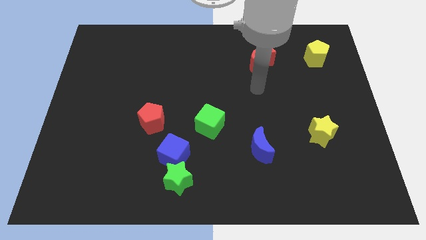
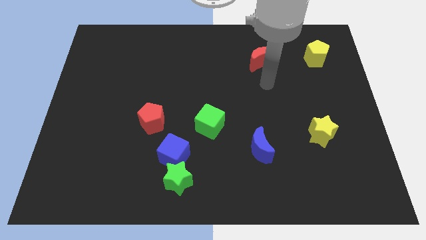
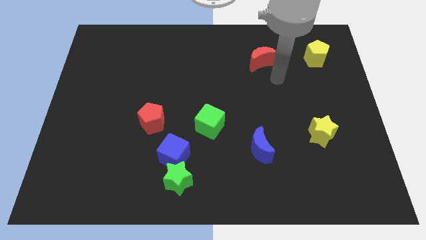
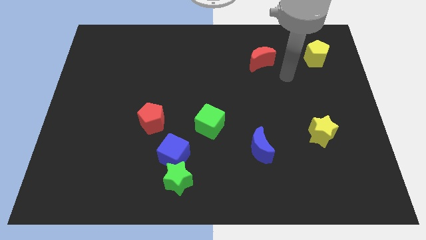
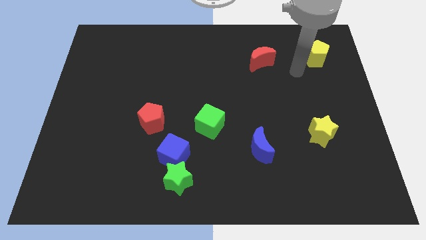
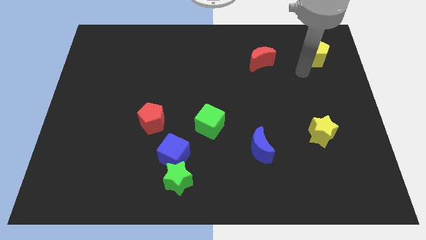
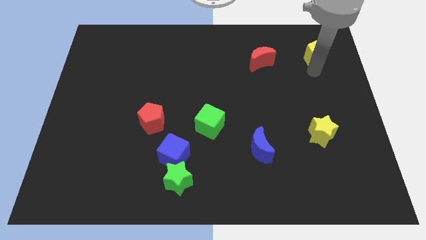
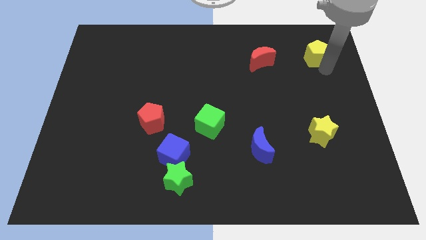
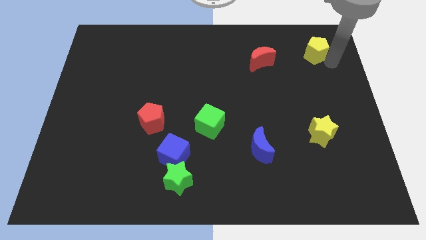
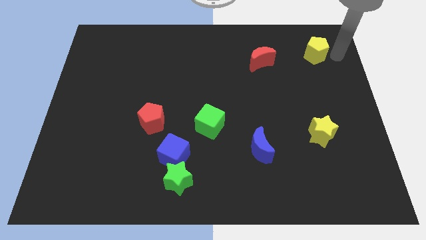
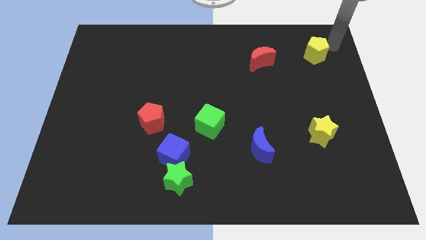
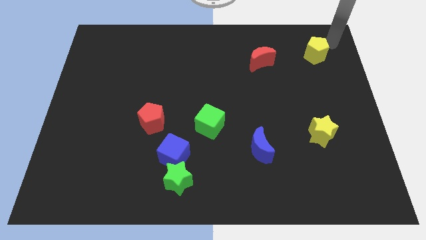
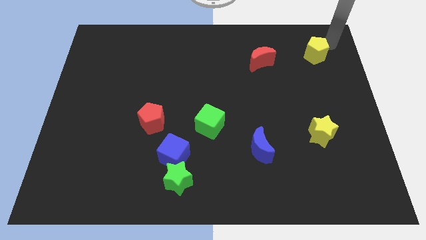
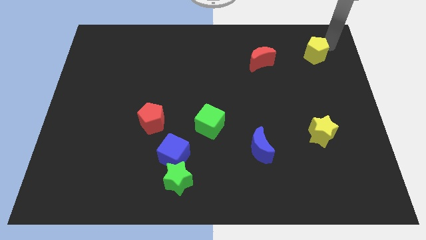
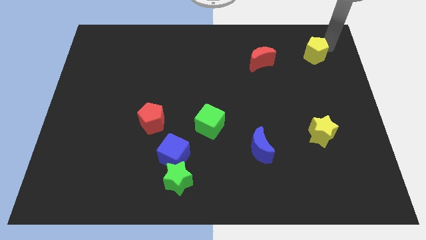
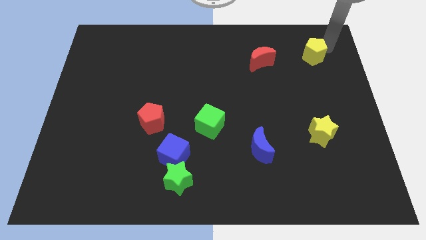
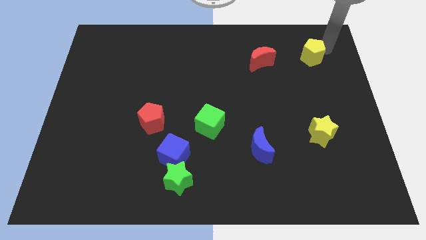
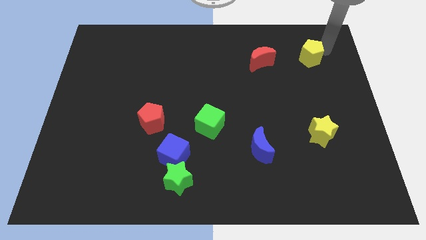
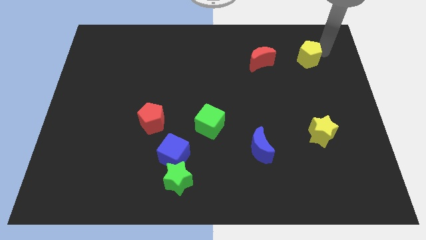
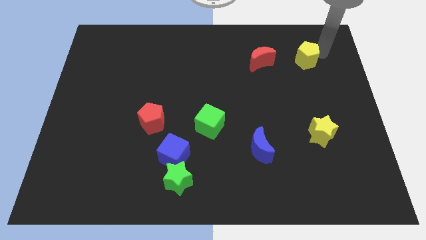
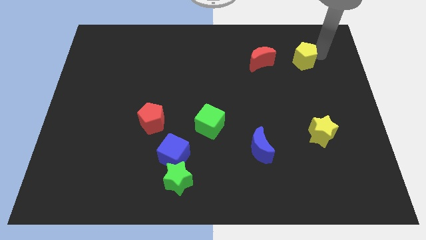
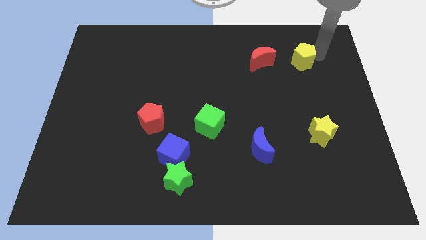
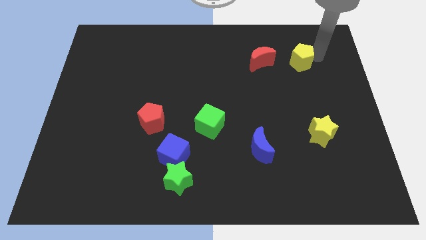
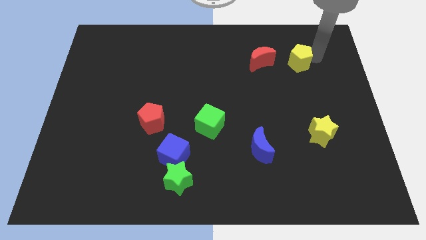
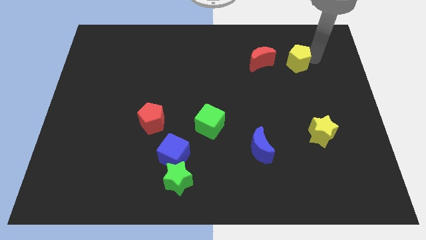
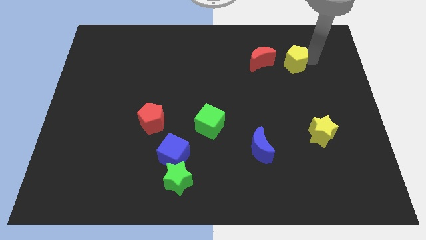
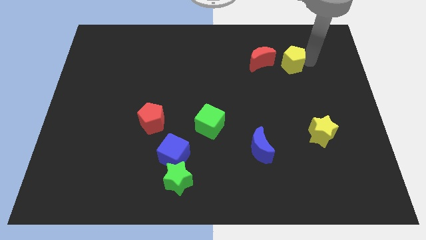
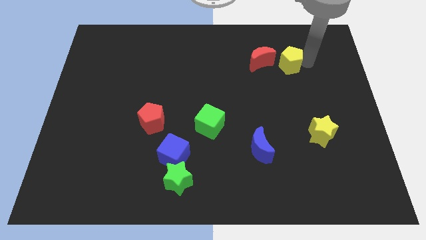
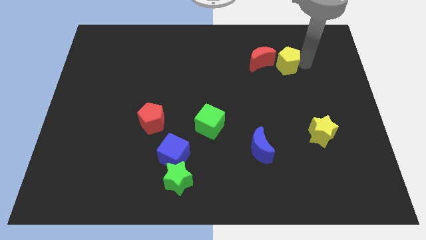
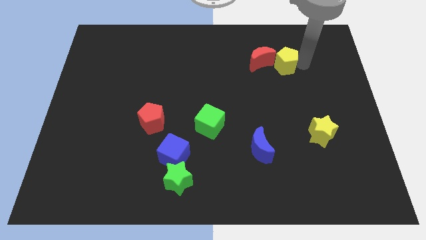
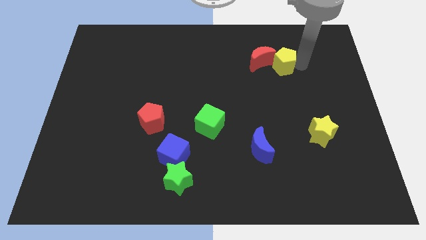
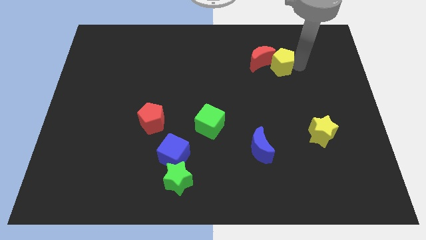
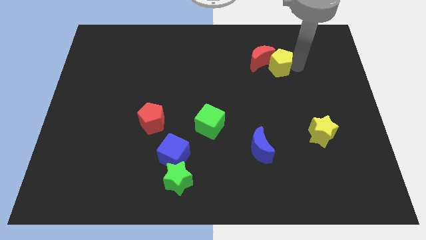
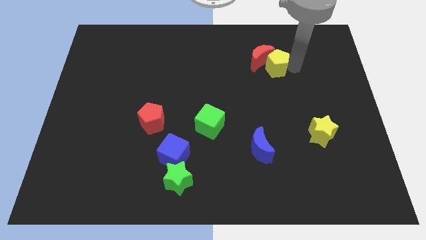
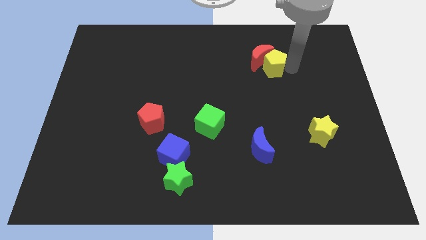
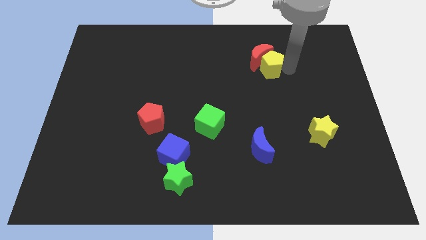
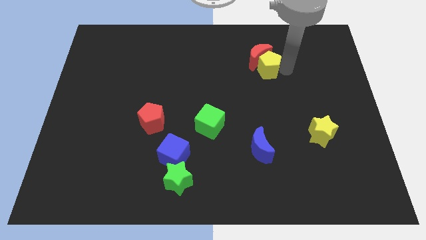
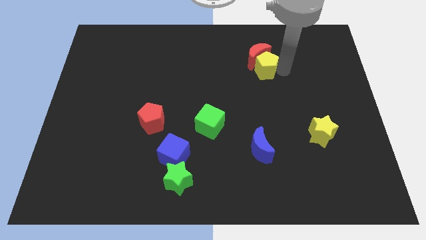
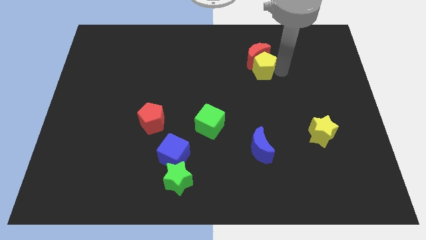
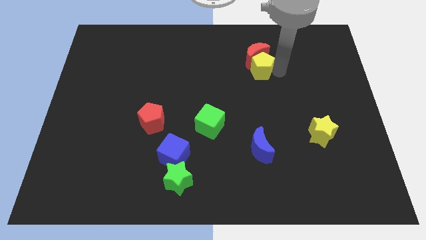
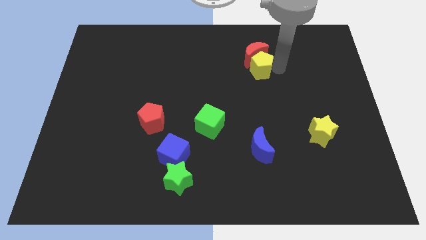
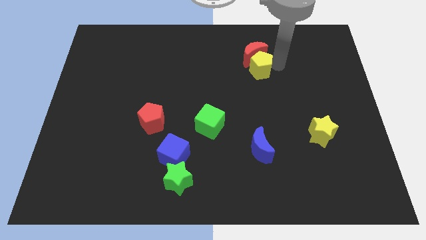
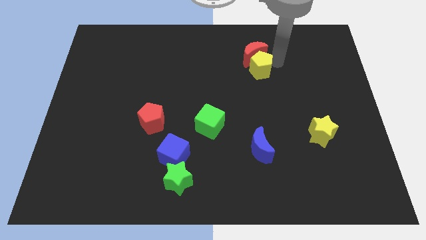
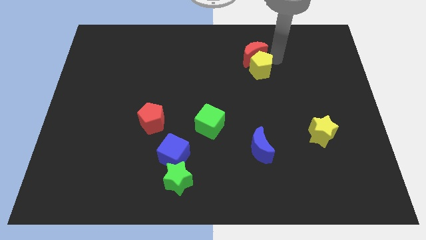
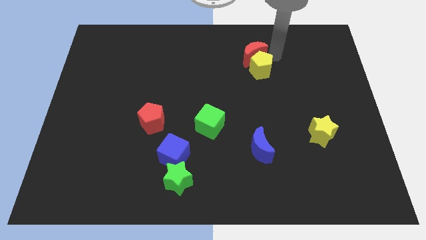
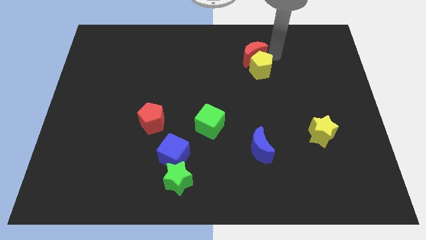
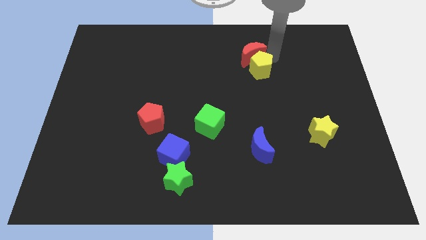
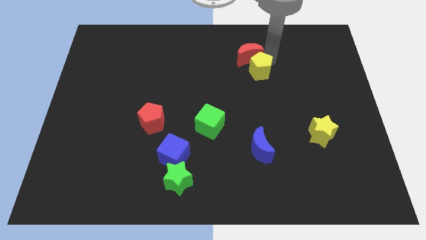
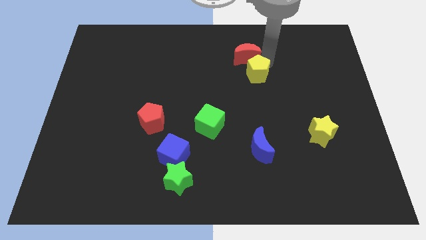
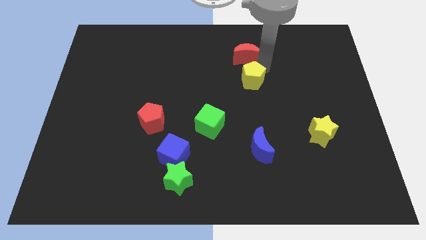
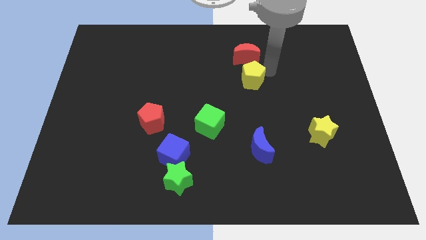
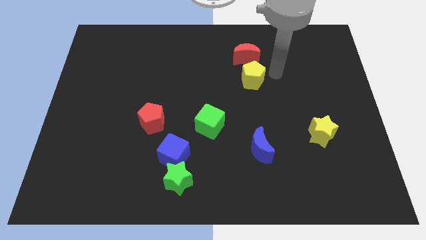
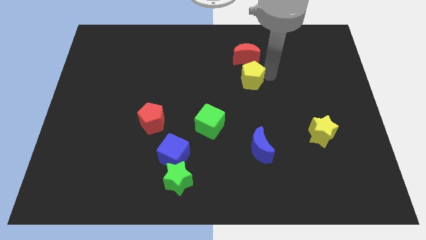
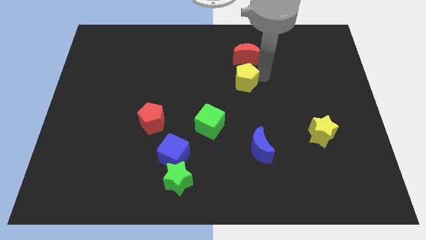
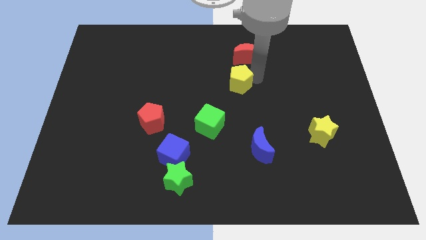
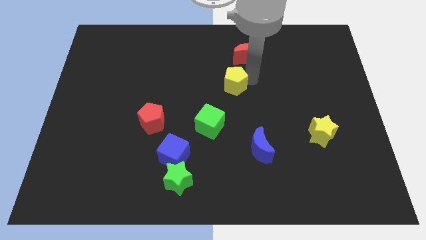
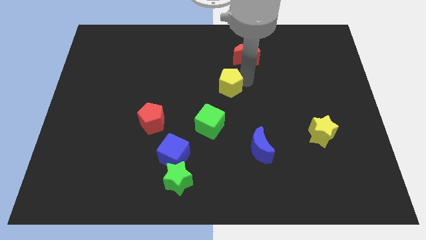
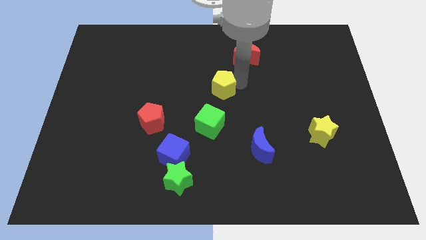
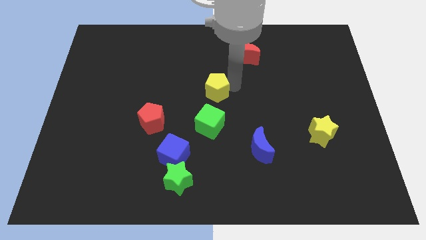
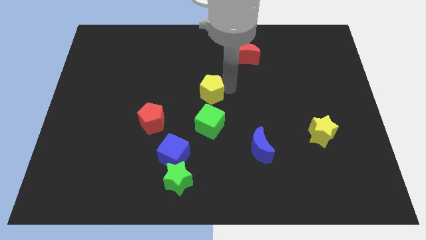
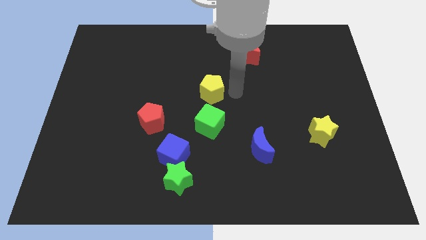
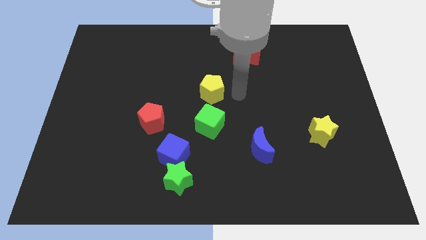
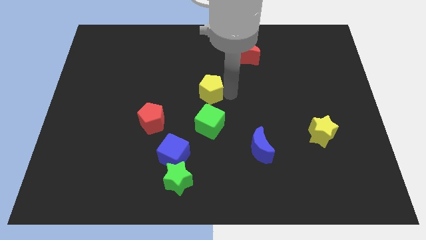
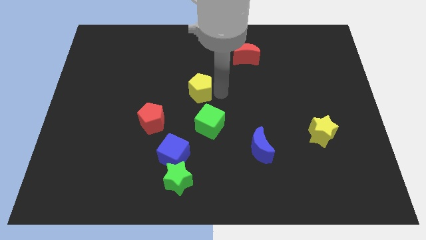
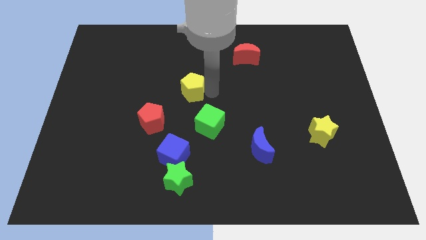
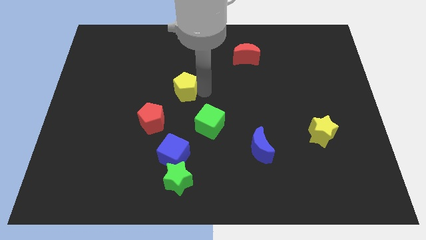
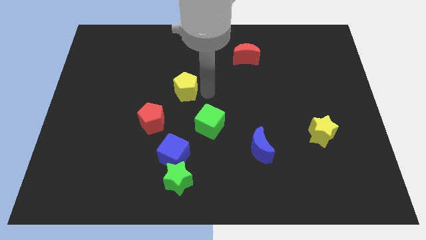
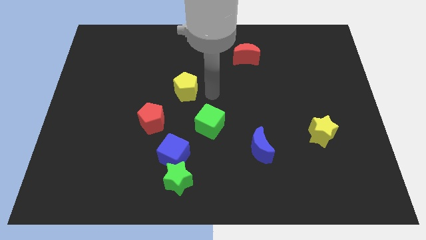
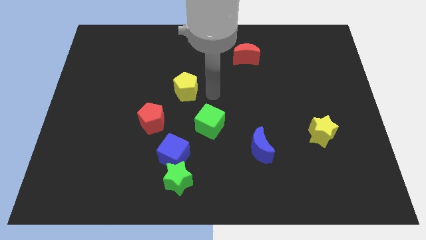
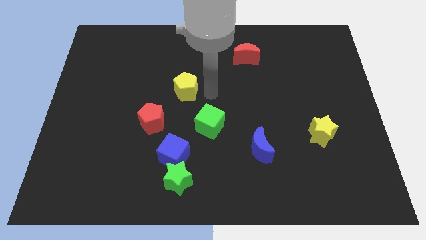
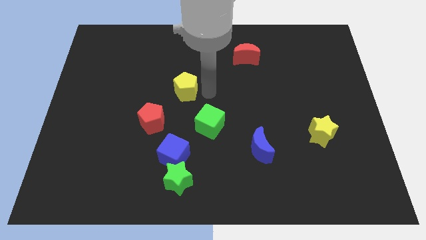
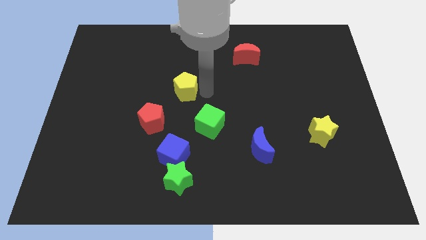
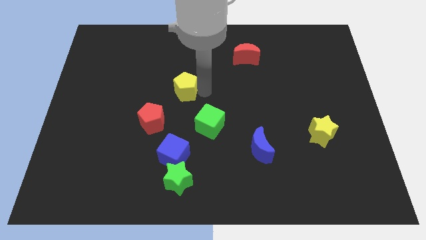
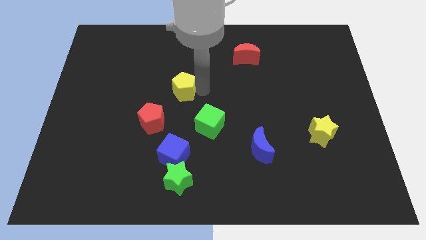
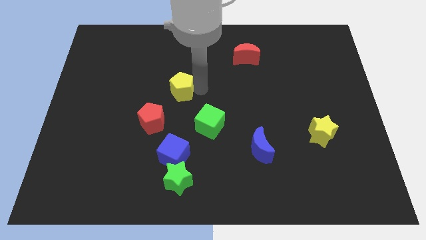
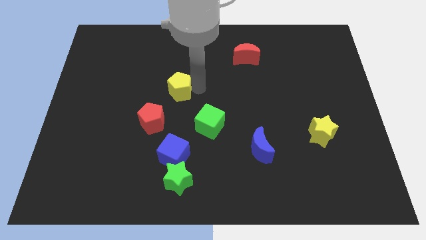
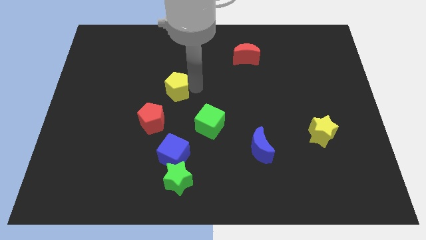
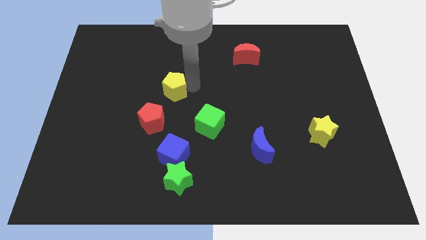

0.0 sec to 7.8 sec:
put the yellow pentagon to the top side of the red pentagon
